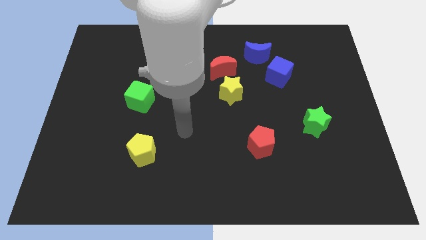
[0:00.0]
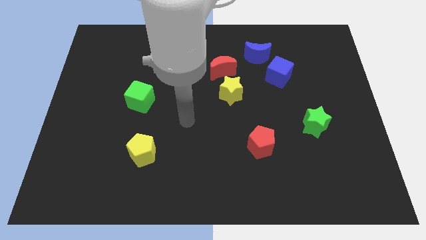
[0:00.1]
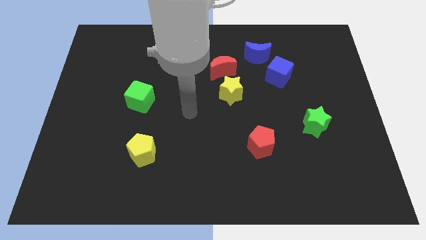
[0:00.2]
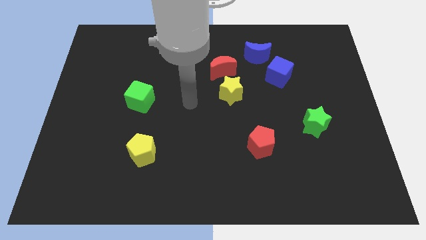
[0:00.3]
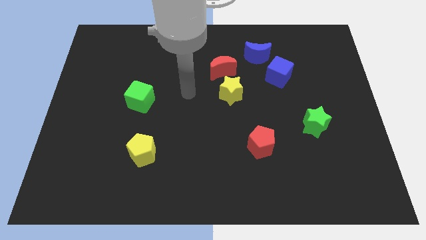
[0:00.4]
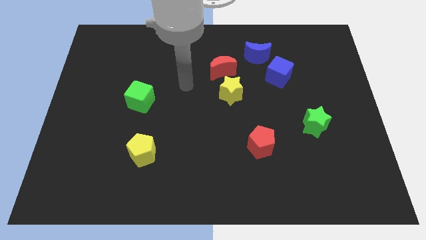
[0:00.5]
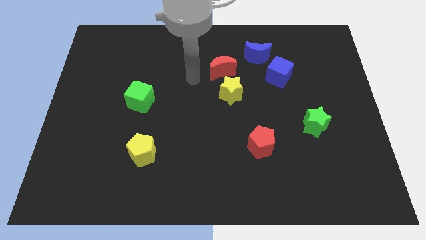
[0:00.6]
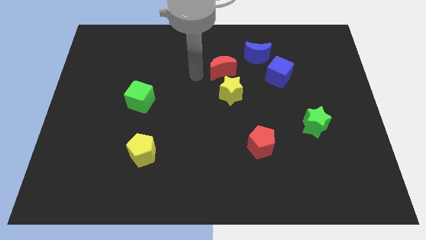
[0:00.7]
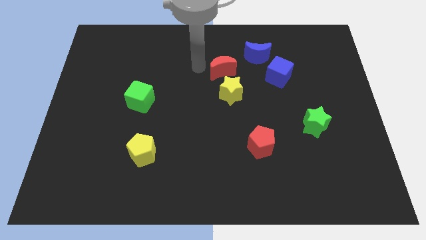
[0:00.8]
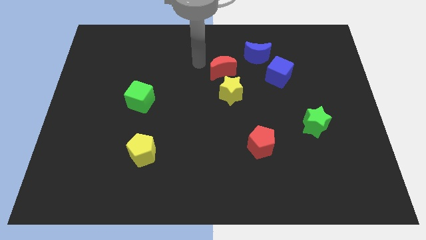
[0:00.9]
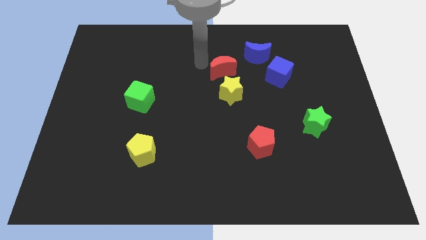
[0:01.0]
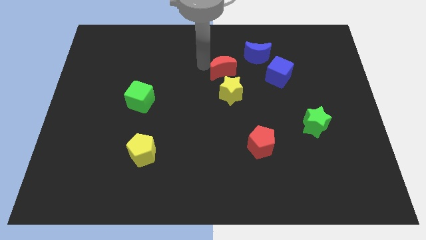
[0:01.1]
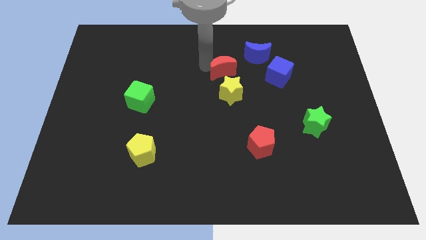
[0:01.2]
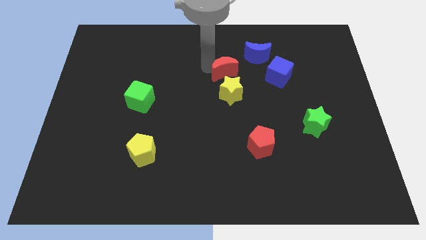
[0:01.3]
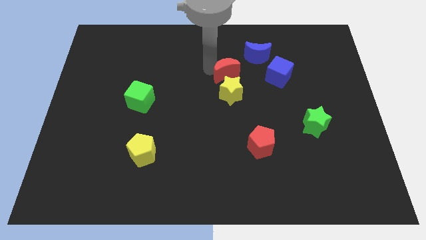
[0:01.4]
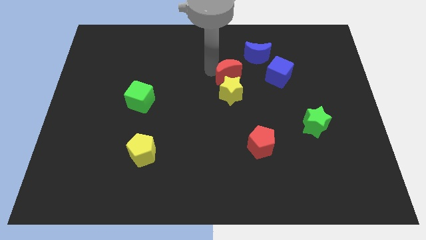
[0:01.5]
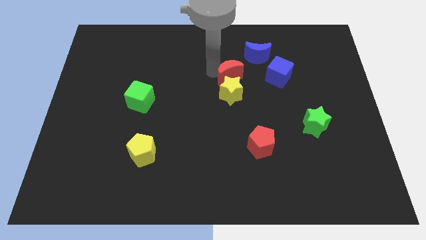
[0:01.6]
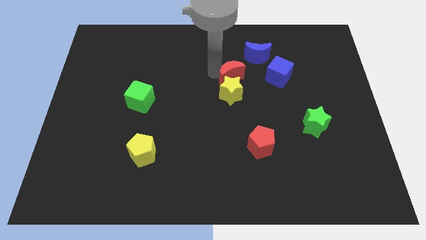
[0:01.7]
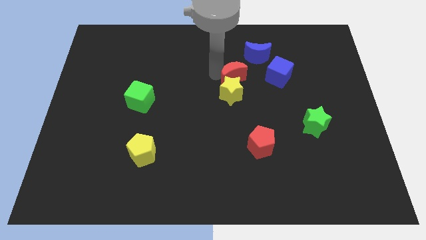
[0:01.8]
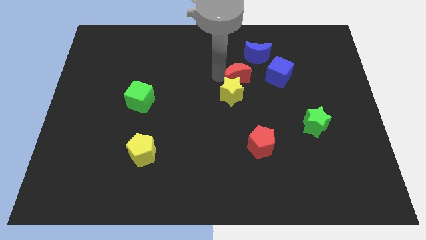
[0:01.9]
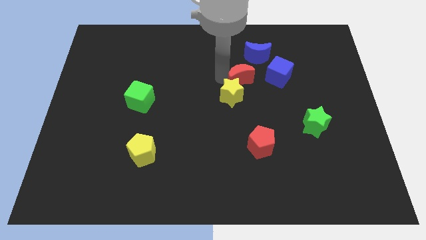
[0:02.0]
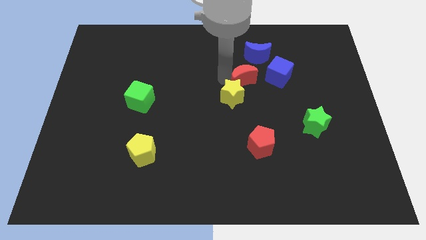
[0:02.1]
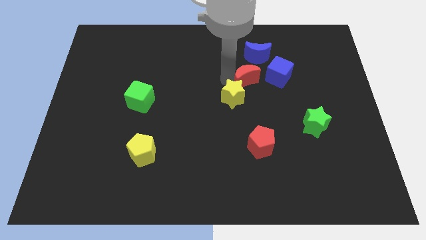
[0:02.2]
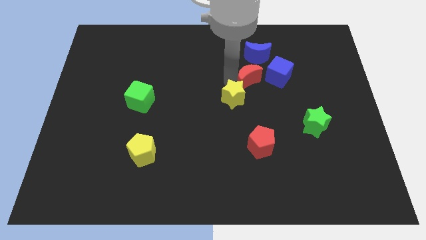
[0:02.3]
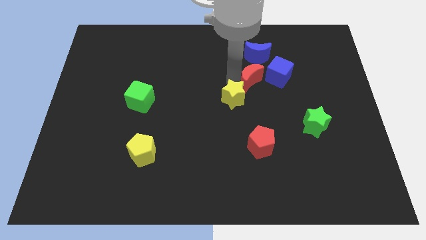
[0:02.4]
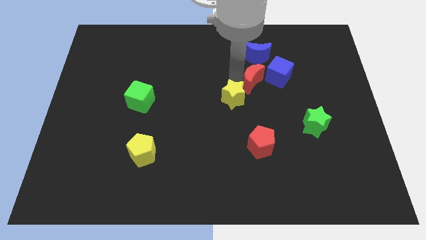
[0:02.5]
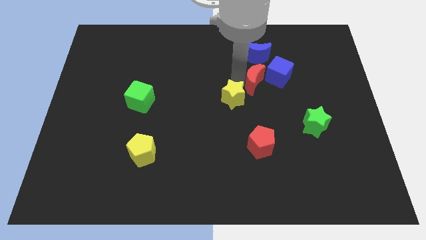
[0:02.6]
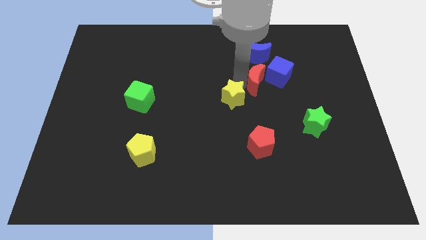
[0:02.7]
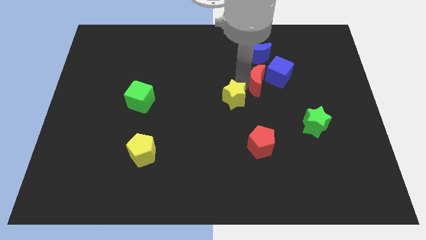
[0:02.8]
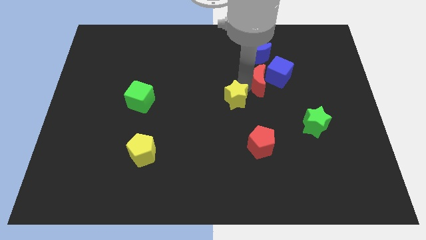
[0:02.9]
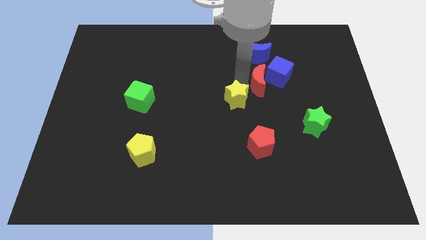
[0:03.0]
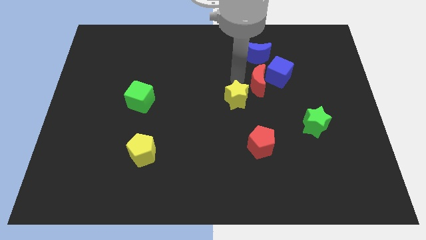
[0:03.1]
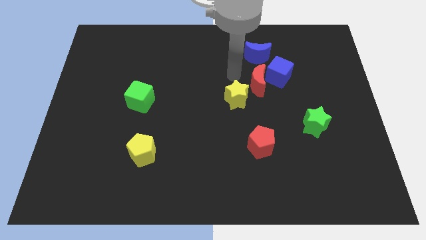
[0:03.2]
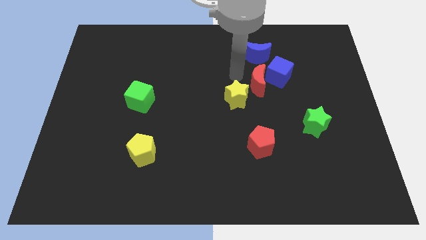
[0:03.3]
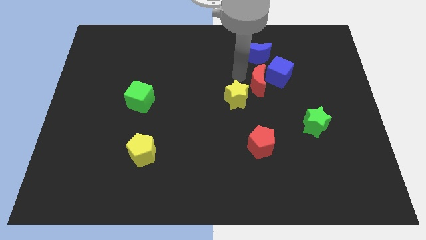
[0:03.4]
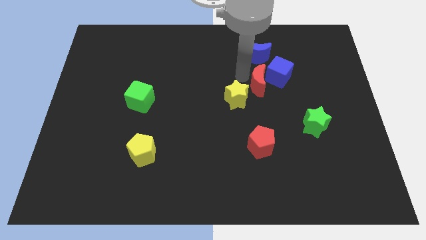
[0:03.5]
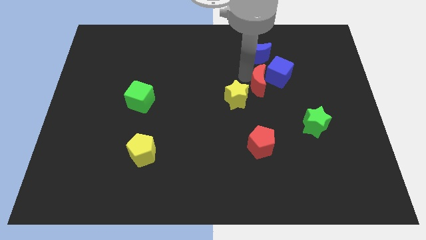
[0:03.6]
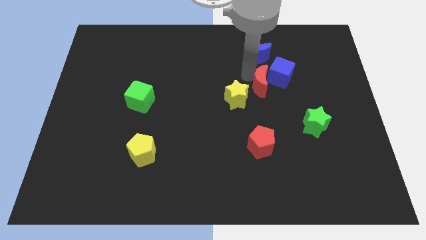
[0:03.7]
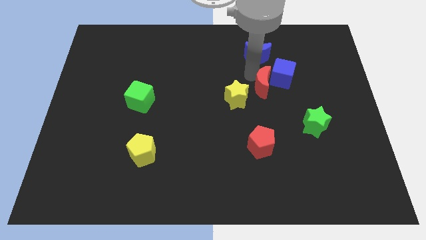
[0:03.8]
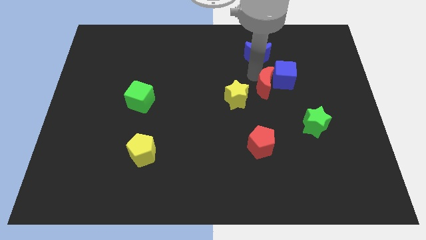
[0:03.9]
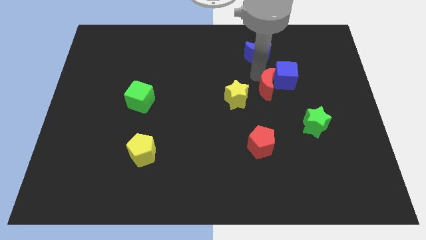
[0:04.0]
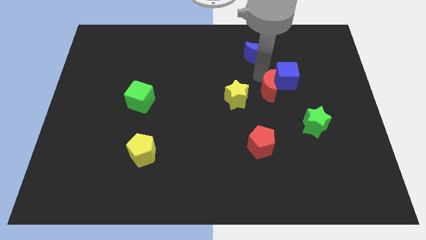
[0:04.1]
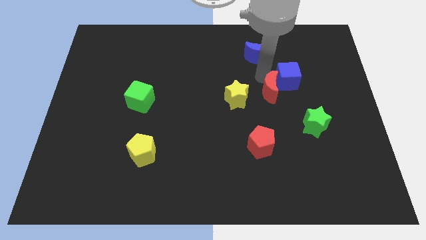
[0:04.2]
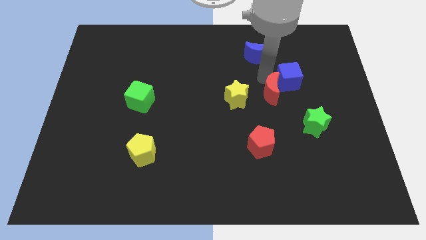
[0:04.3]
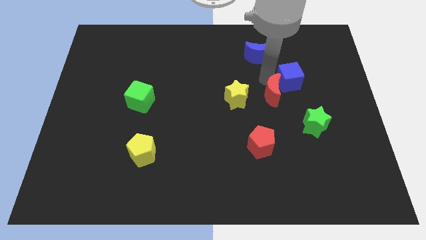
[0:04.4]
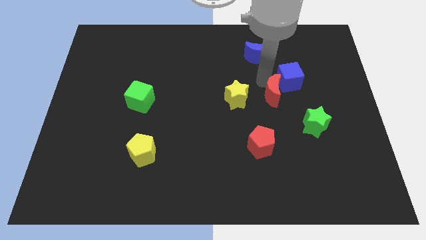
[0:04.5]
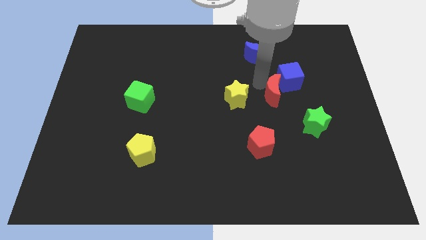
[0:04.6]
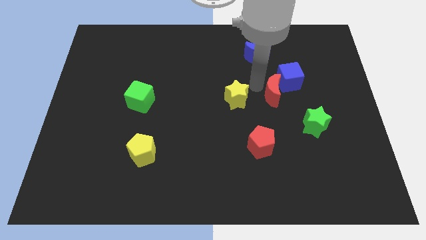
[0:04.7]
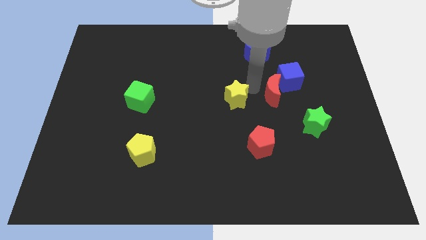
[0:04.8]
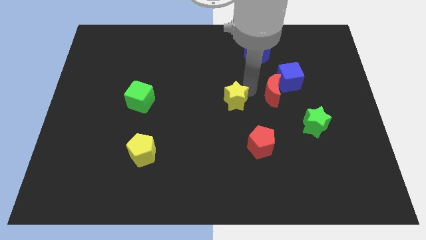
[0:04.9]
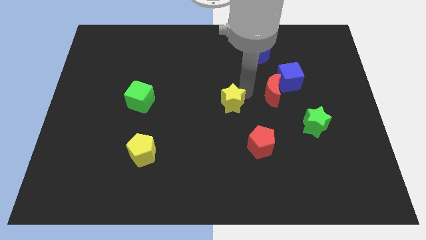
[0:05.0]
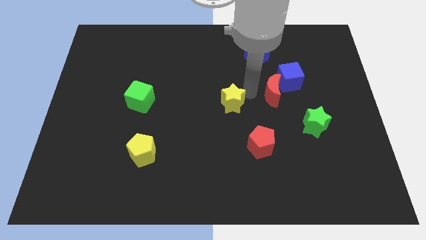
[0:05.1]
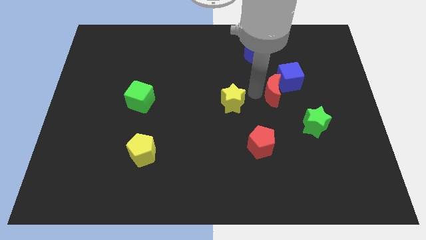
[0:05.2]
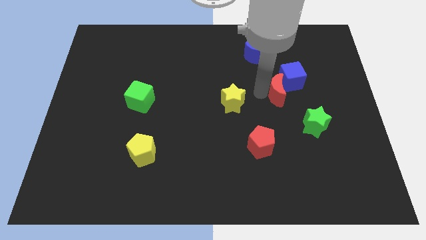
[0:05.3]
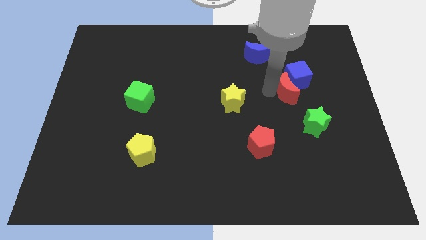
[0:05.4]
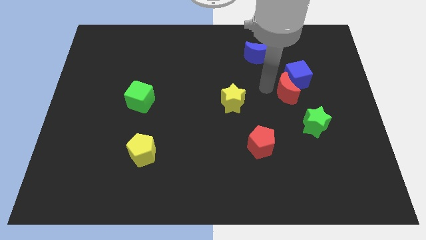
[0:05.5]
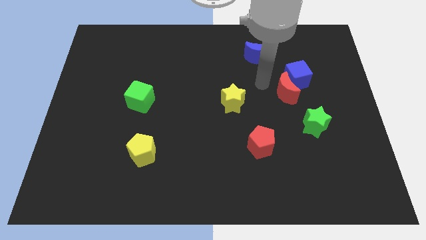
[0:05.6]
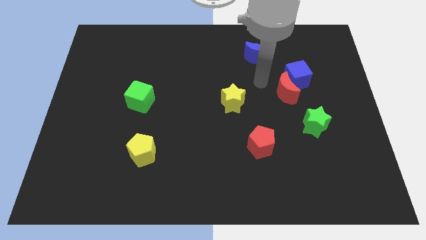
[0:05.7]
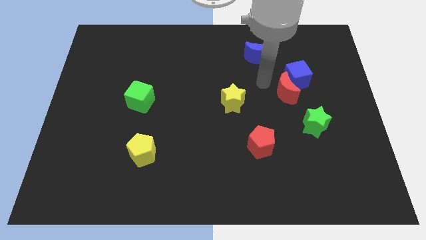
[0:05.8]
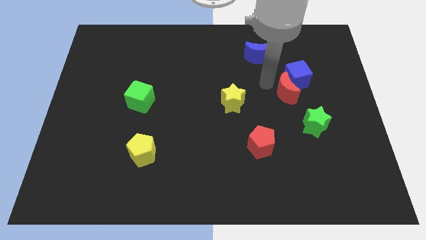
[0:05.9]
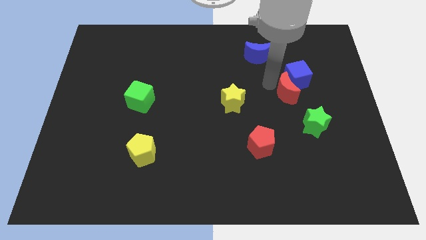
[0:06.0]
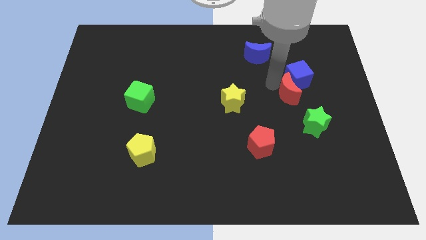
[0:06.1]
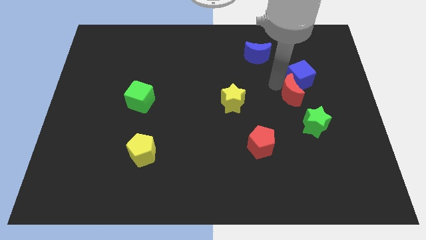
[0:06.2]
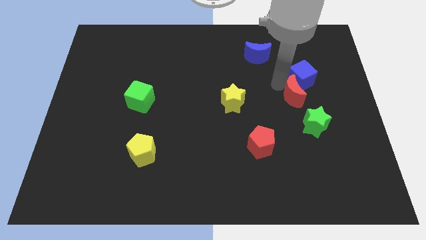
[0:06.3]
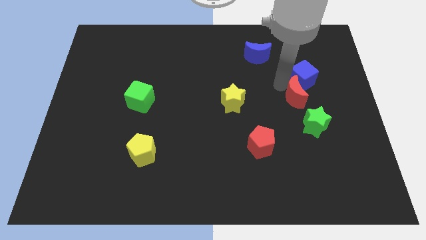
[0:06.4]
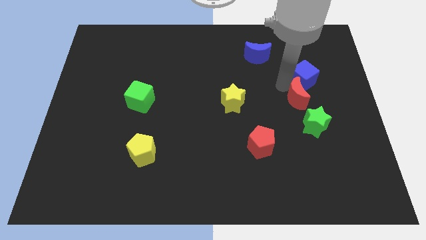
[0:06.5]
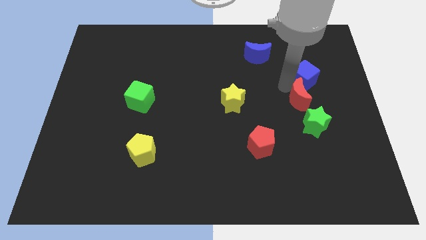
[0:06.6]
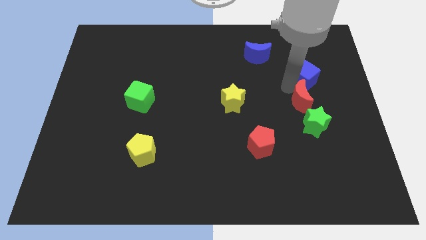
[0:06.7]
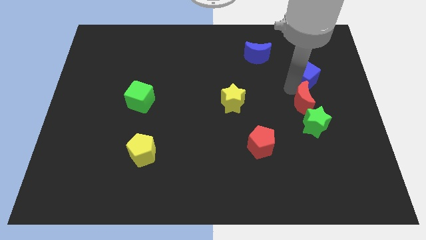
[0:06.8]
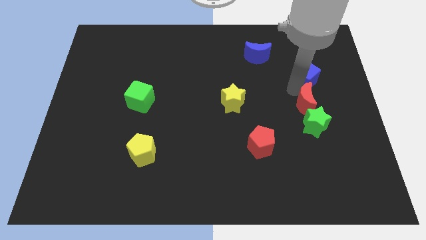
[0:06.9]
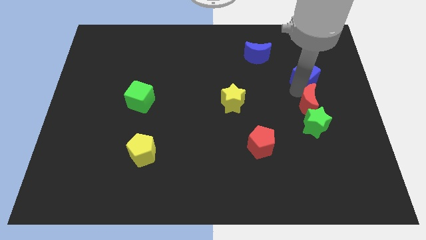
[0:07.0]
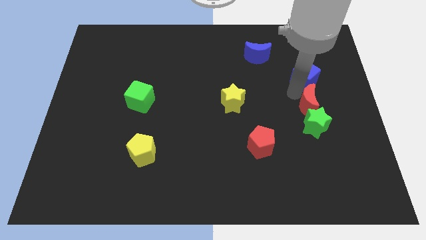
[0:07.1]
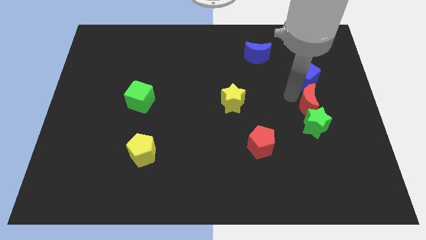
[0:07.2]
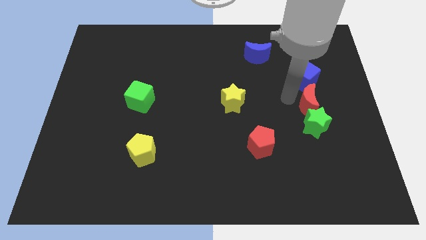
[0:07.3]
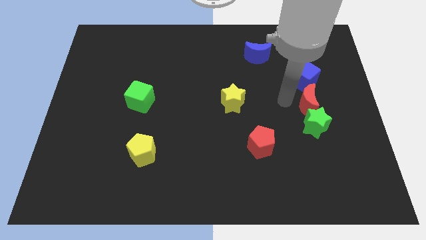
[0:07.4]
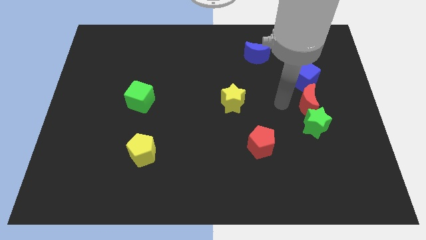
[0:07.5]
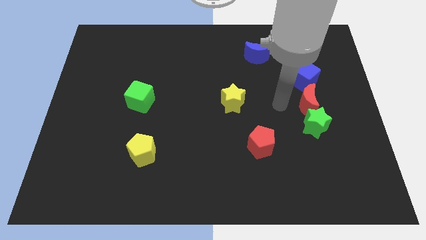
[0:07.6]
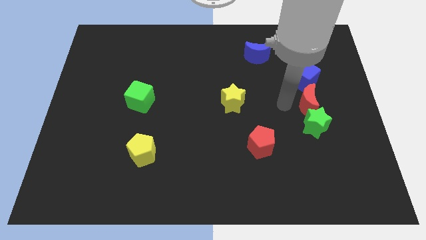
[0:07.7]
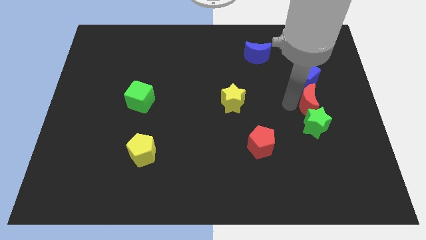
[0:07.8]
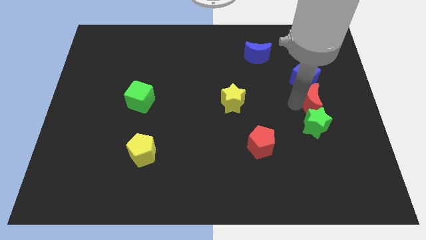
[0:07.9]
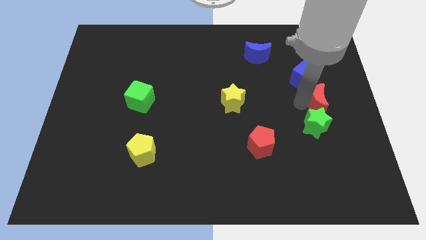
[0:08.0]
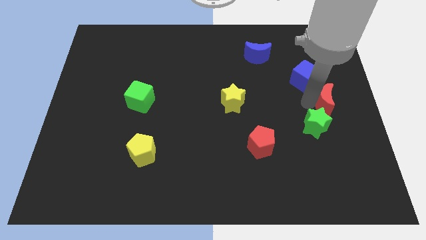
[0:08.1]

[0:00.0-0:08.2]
put the red moon to the right side
